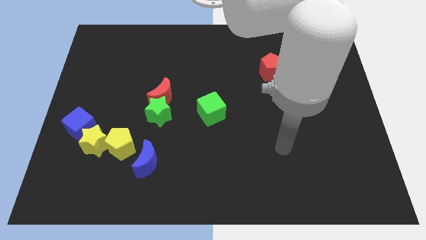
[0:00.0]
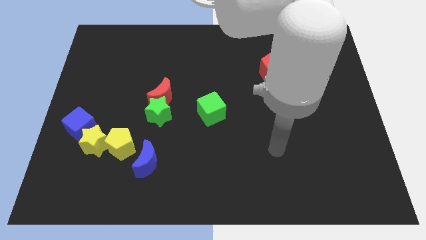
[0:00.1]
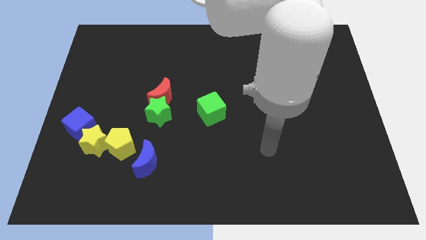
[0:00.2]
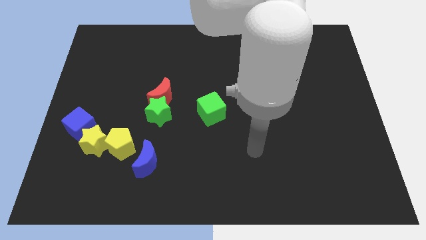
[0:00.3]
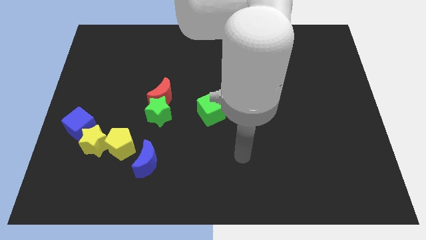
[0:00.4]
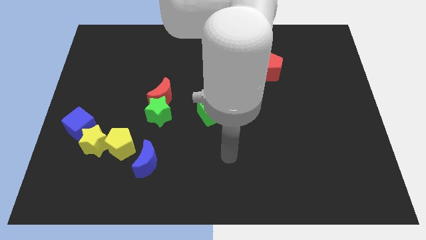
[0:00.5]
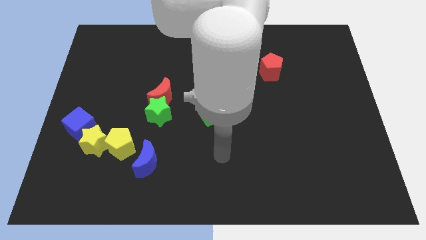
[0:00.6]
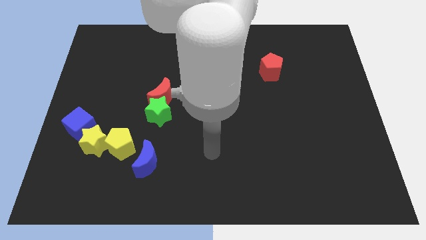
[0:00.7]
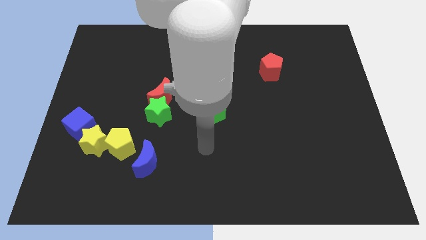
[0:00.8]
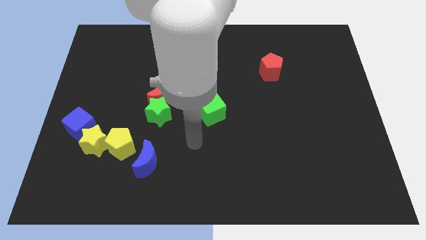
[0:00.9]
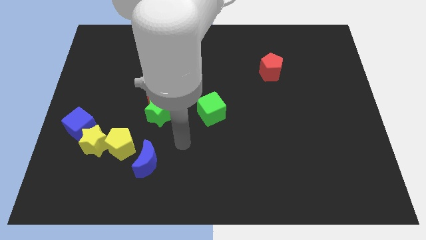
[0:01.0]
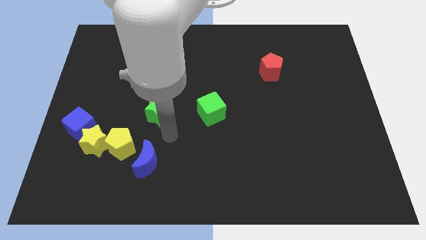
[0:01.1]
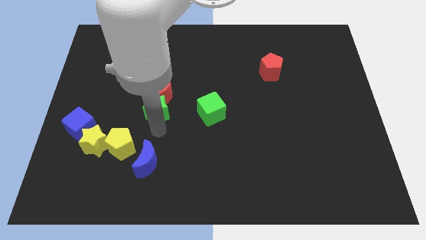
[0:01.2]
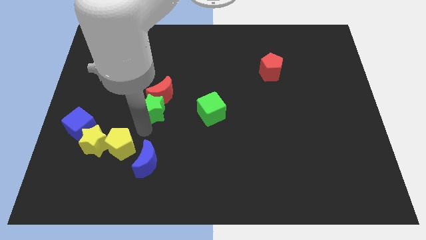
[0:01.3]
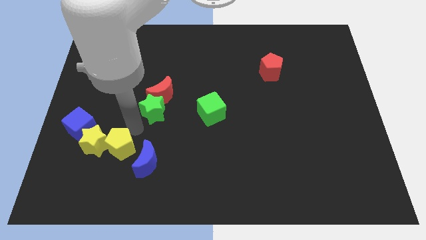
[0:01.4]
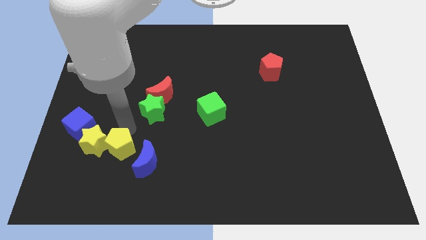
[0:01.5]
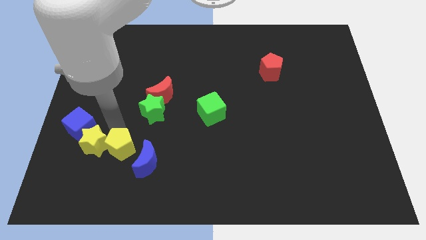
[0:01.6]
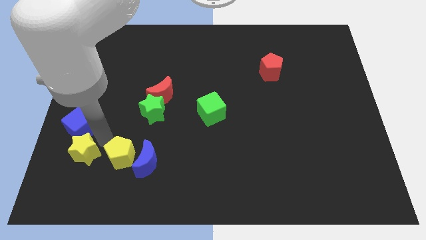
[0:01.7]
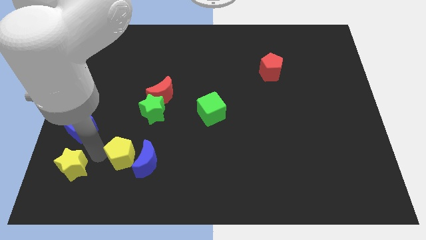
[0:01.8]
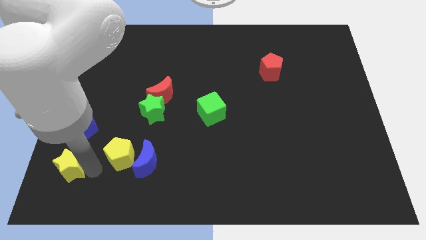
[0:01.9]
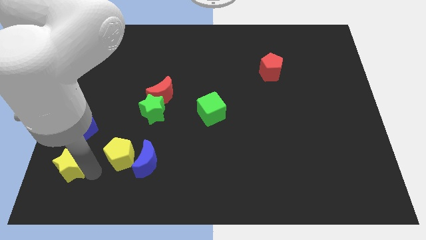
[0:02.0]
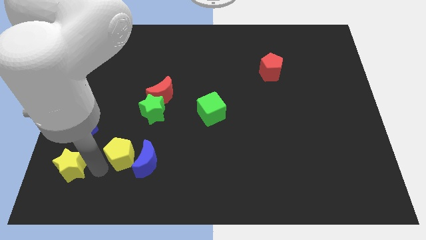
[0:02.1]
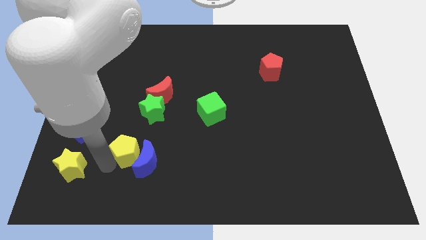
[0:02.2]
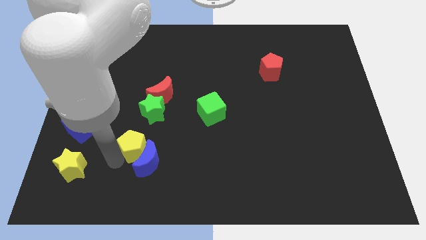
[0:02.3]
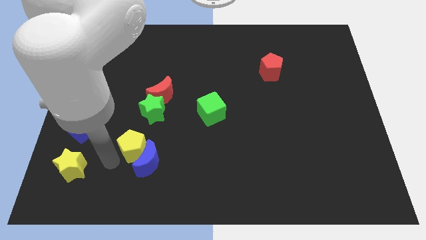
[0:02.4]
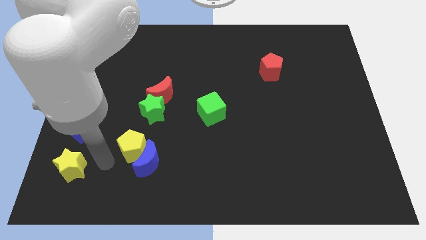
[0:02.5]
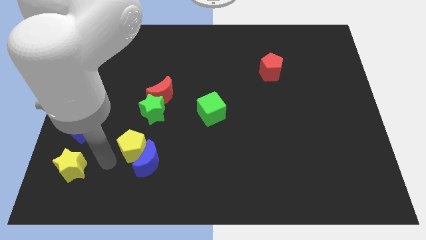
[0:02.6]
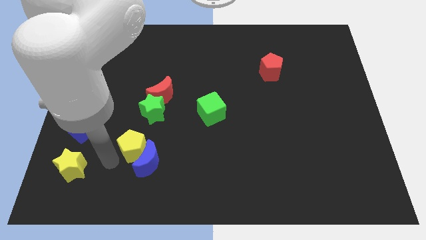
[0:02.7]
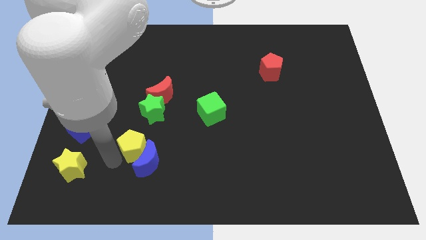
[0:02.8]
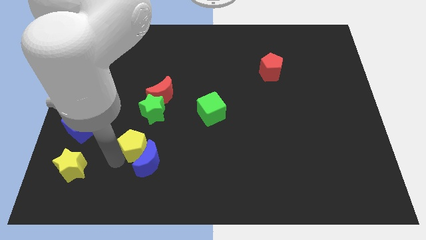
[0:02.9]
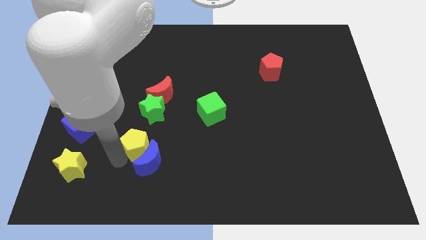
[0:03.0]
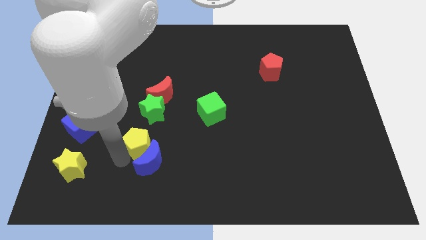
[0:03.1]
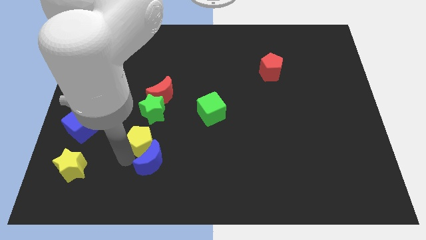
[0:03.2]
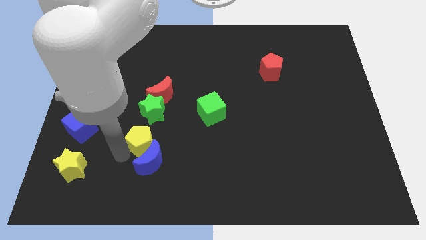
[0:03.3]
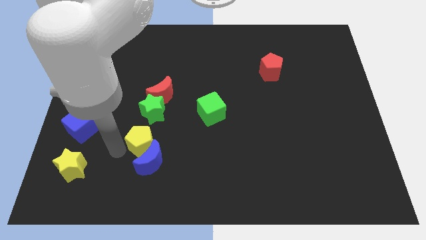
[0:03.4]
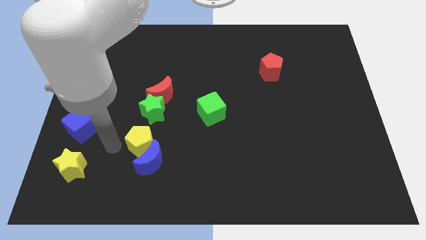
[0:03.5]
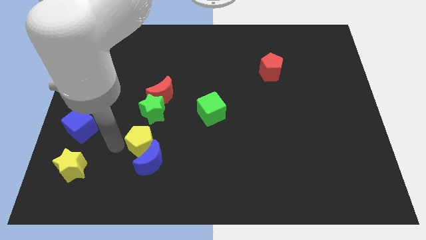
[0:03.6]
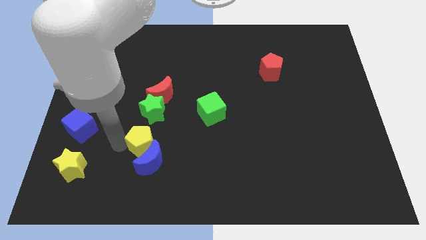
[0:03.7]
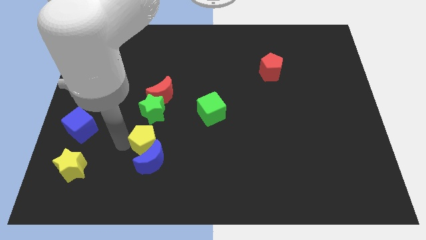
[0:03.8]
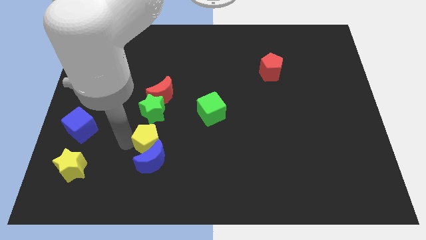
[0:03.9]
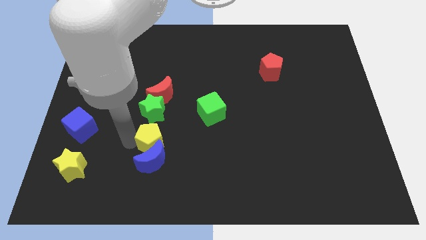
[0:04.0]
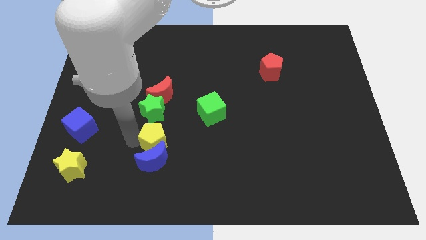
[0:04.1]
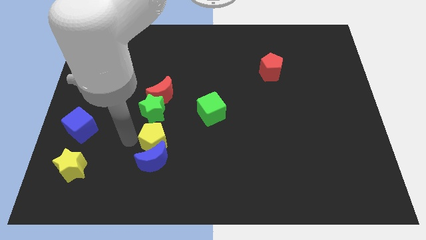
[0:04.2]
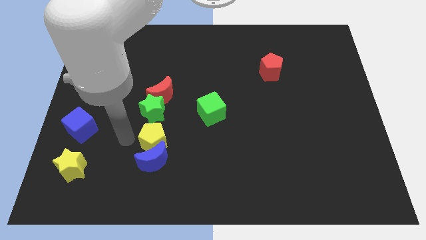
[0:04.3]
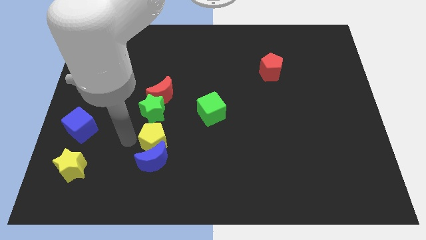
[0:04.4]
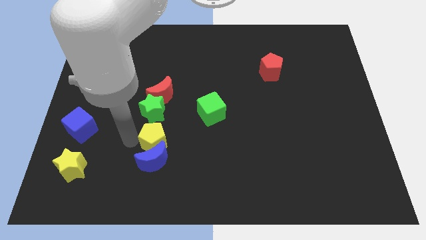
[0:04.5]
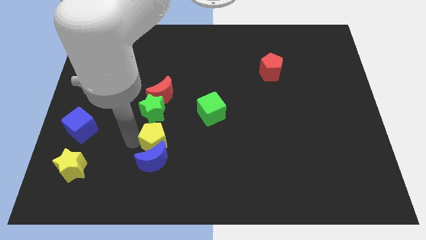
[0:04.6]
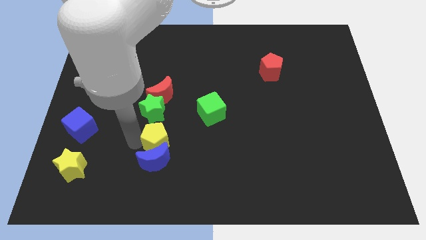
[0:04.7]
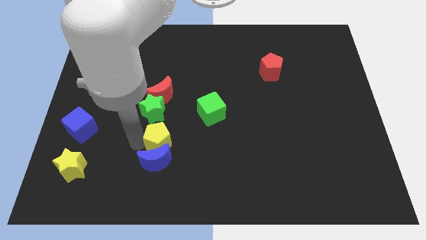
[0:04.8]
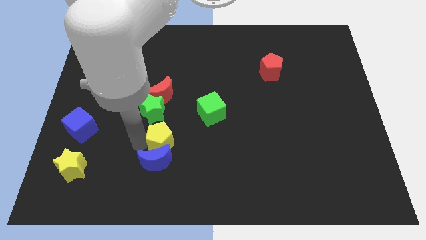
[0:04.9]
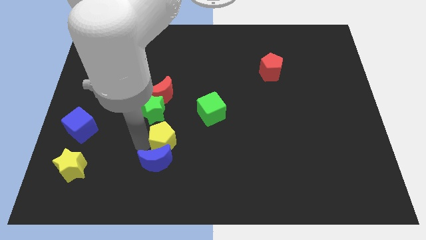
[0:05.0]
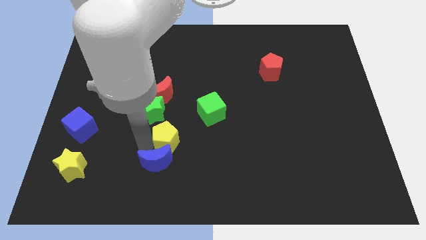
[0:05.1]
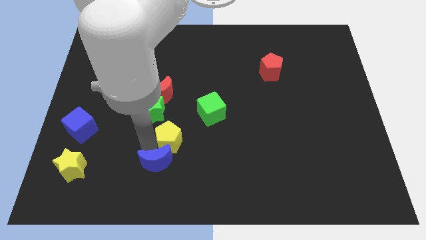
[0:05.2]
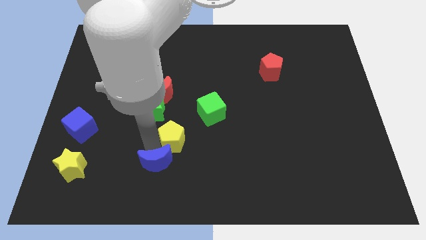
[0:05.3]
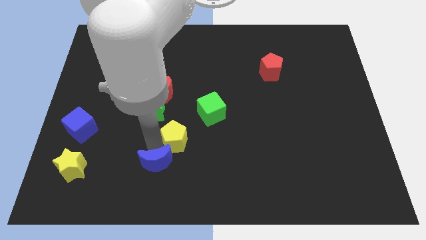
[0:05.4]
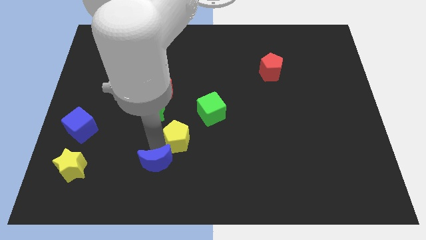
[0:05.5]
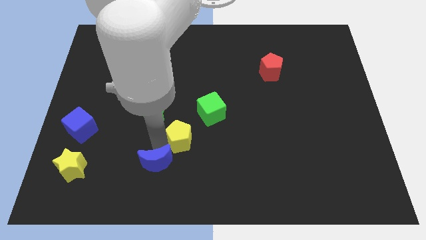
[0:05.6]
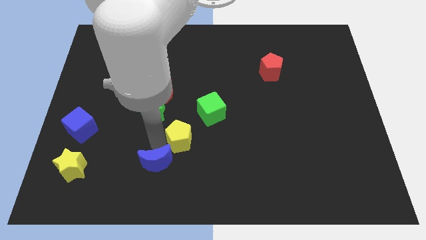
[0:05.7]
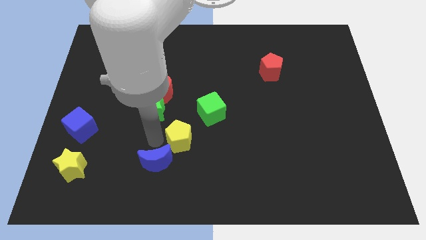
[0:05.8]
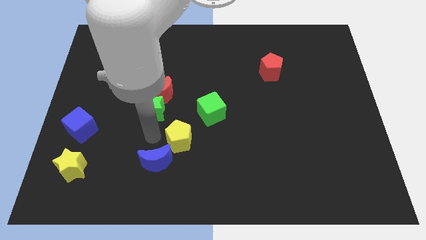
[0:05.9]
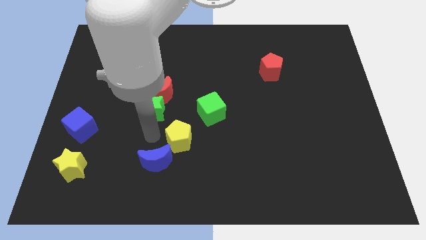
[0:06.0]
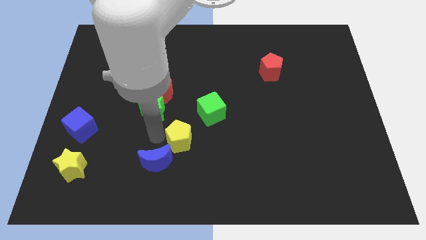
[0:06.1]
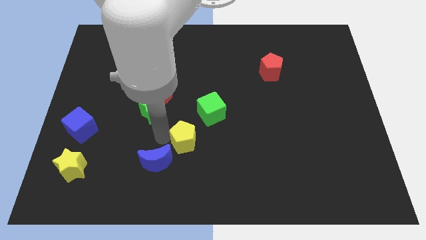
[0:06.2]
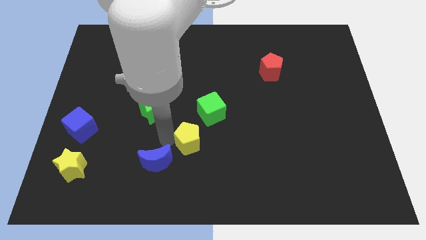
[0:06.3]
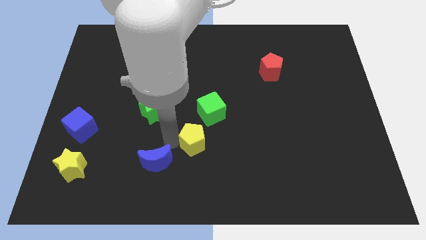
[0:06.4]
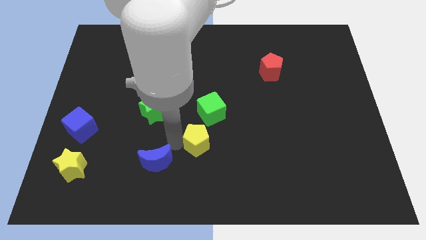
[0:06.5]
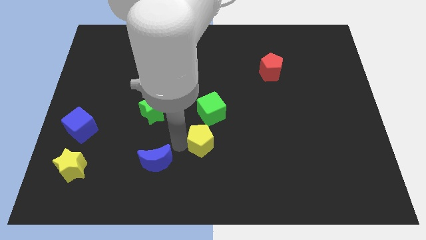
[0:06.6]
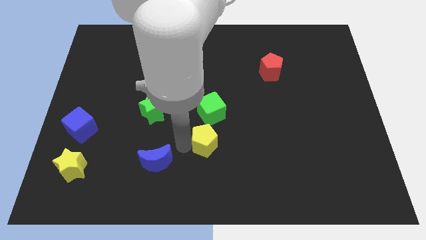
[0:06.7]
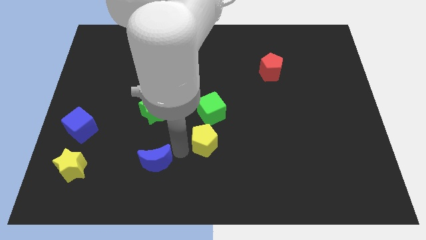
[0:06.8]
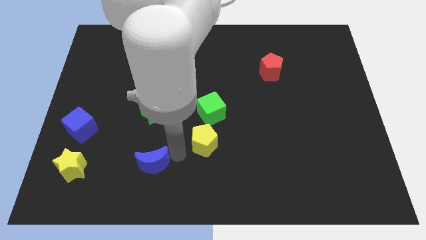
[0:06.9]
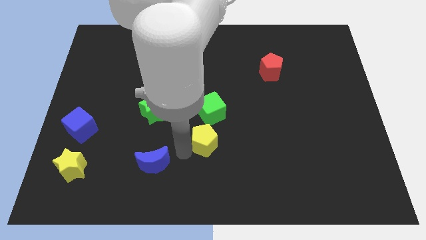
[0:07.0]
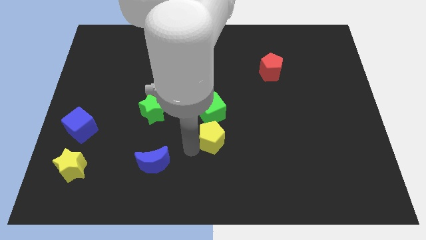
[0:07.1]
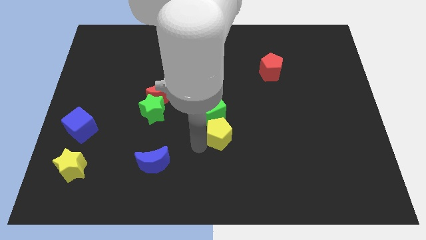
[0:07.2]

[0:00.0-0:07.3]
move the yellow pentagon diagonally down and to the right of the green cube
